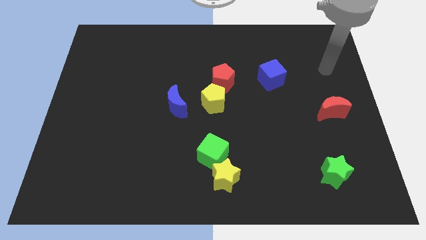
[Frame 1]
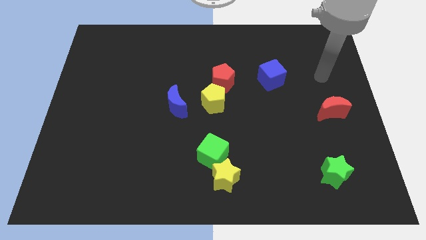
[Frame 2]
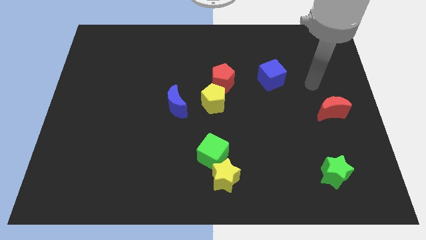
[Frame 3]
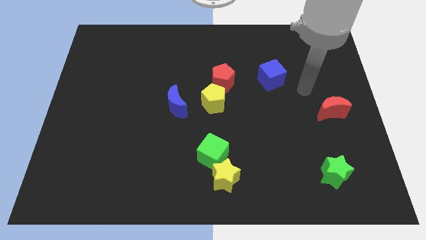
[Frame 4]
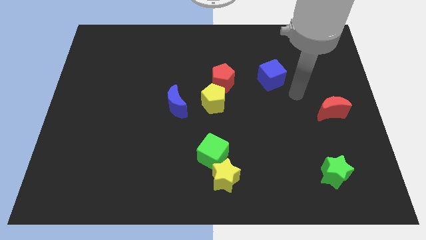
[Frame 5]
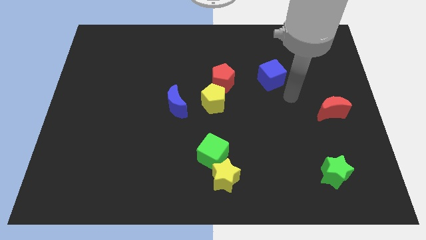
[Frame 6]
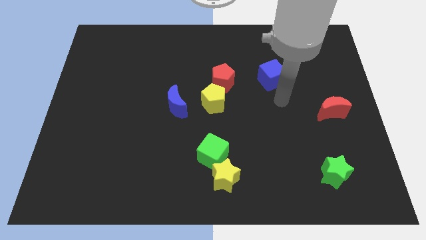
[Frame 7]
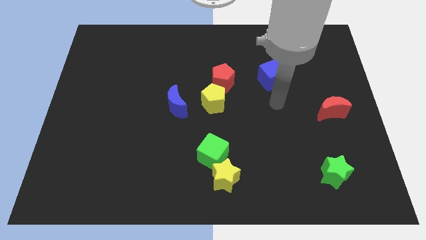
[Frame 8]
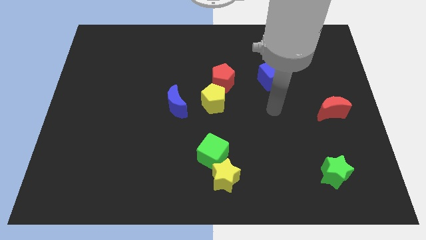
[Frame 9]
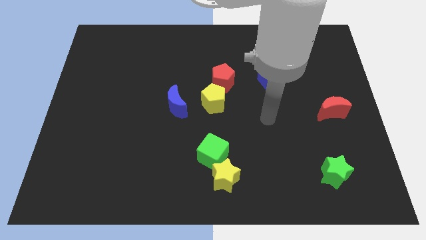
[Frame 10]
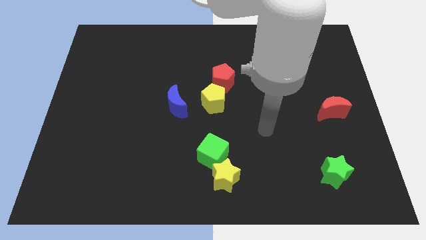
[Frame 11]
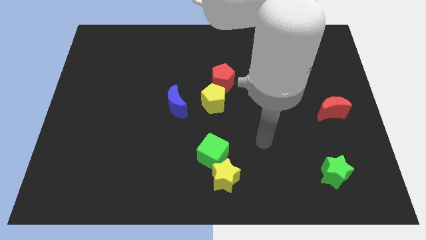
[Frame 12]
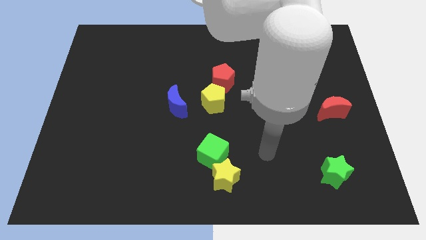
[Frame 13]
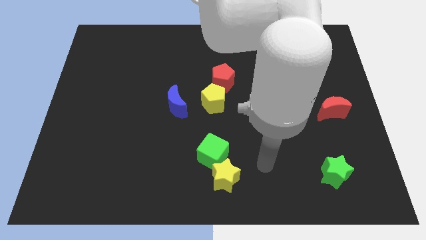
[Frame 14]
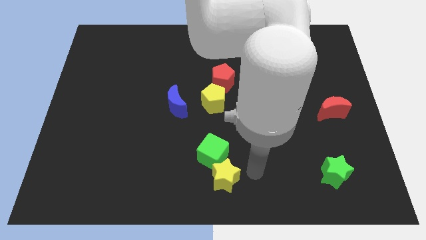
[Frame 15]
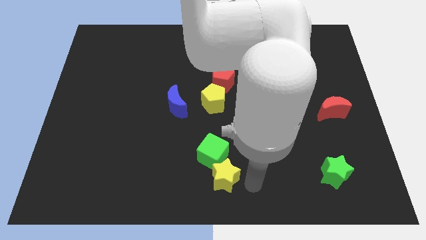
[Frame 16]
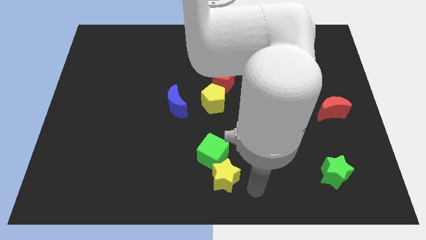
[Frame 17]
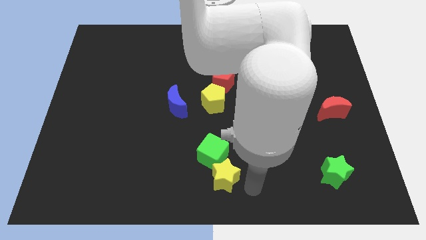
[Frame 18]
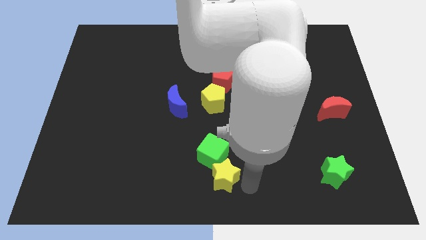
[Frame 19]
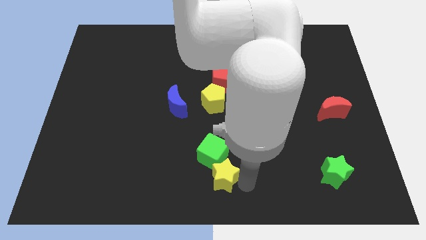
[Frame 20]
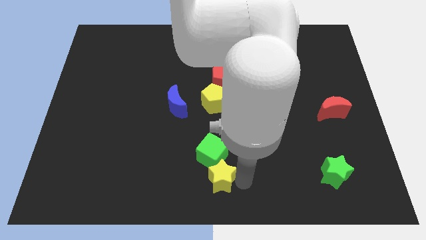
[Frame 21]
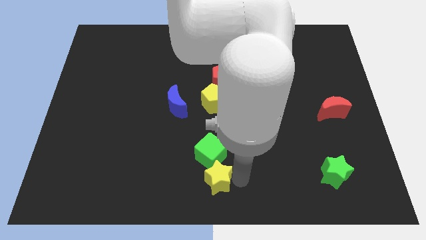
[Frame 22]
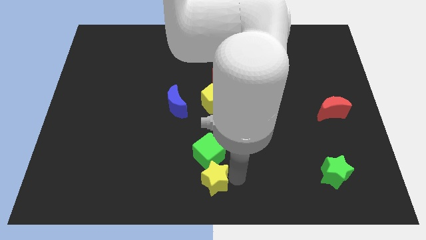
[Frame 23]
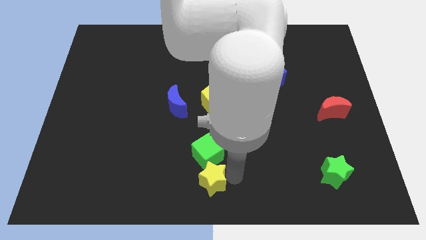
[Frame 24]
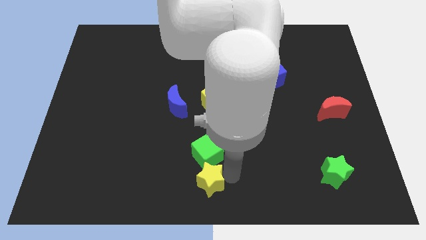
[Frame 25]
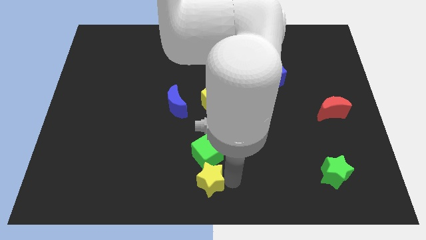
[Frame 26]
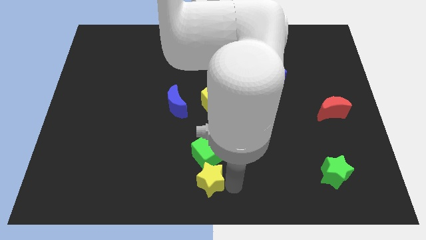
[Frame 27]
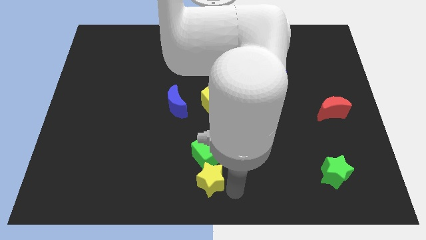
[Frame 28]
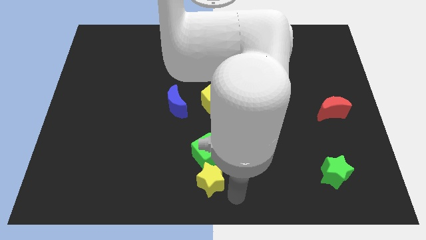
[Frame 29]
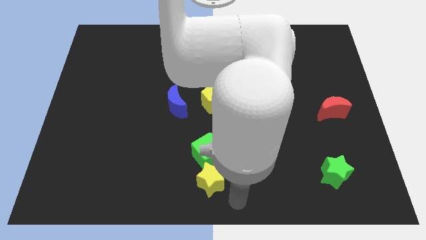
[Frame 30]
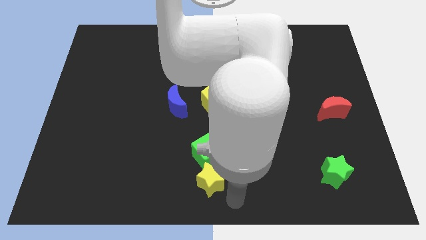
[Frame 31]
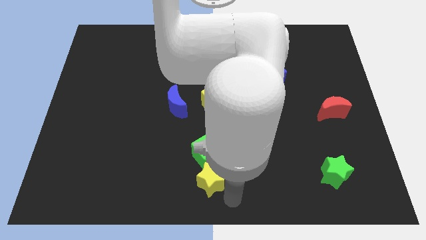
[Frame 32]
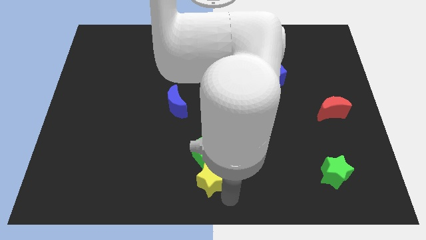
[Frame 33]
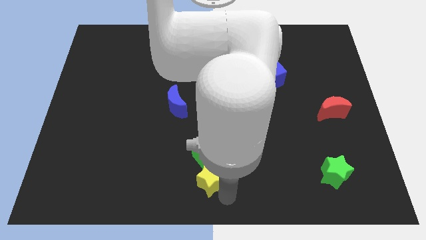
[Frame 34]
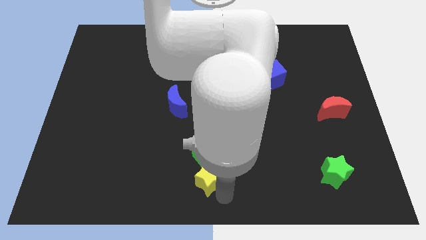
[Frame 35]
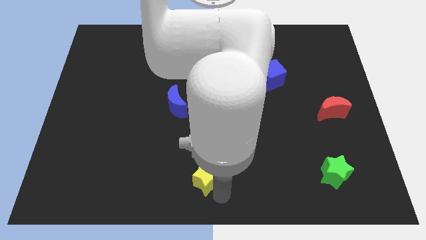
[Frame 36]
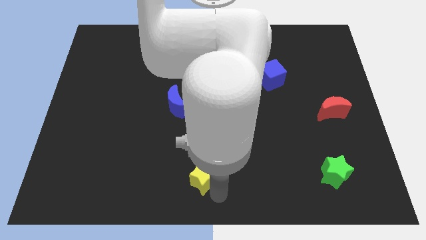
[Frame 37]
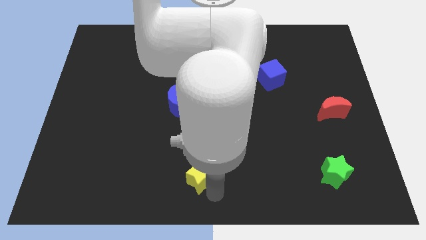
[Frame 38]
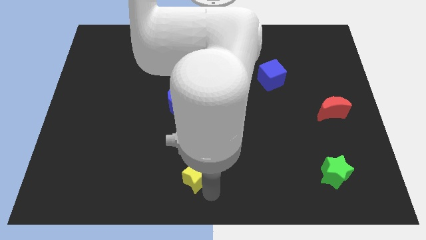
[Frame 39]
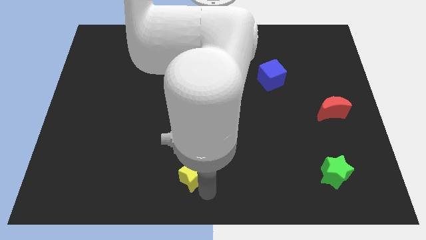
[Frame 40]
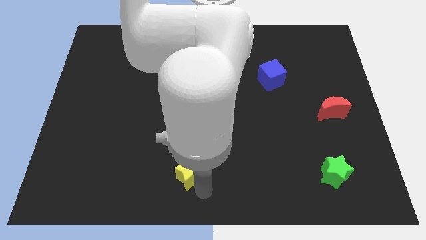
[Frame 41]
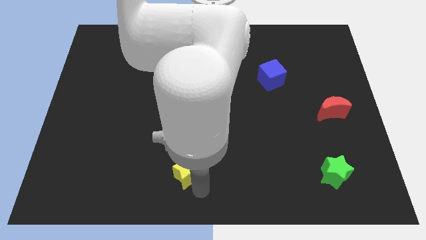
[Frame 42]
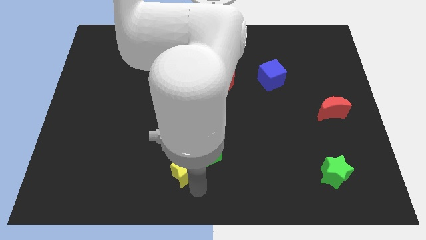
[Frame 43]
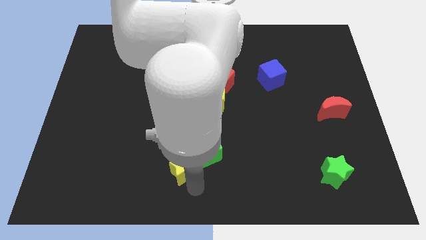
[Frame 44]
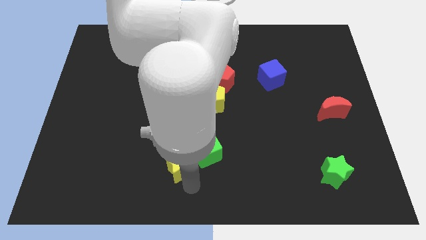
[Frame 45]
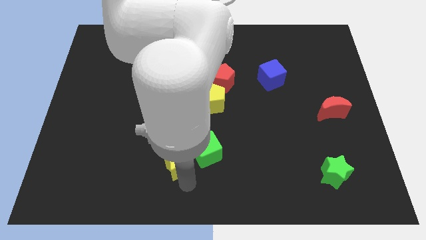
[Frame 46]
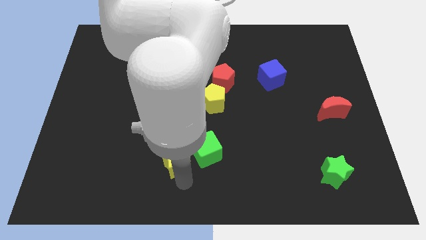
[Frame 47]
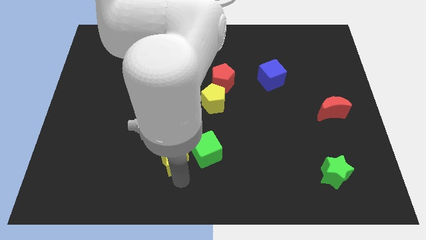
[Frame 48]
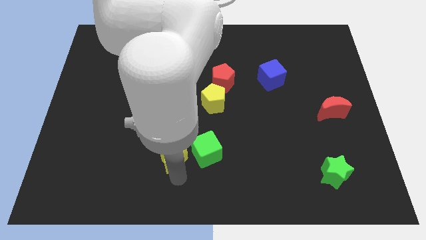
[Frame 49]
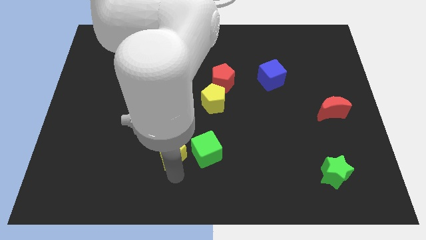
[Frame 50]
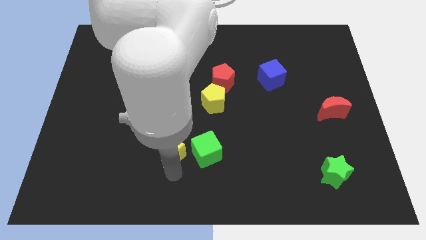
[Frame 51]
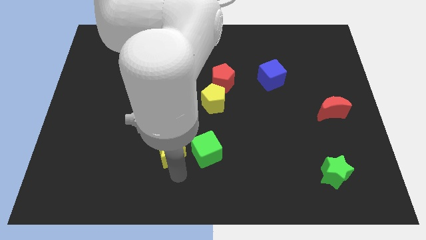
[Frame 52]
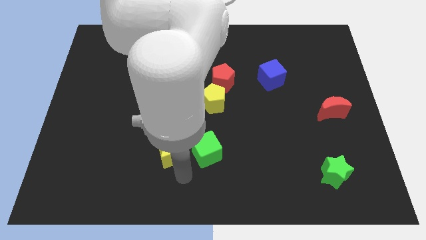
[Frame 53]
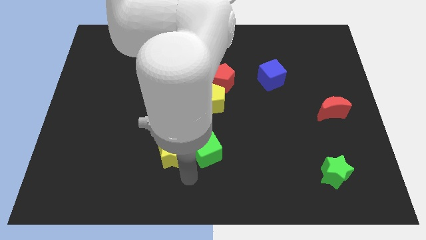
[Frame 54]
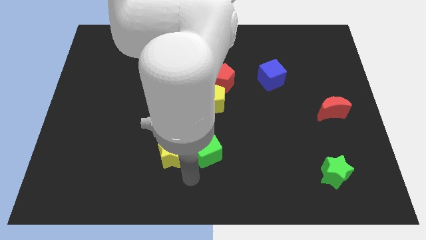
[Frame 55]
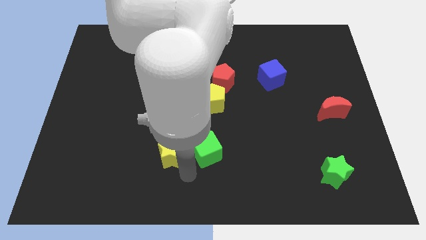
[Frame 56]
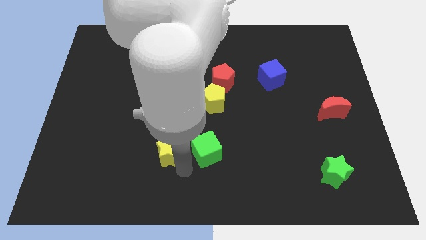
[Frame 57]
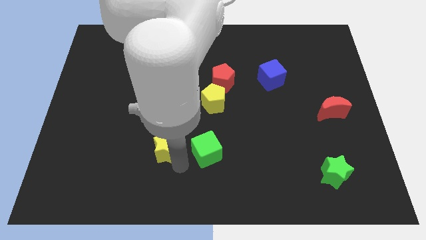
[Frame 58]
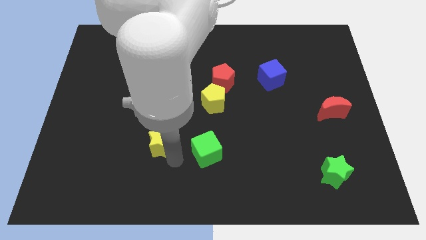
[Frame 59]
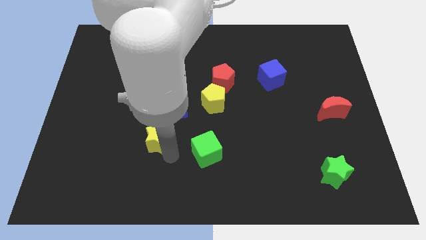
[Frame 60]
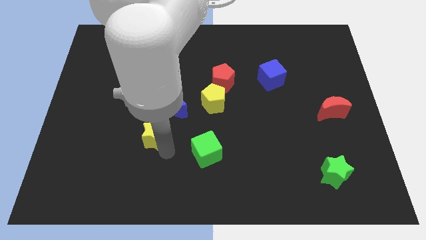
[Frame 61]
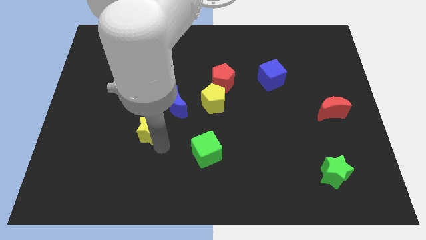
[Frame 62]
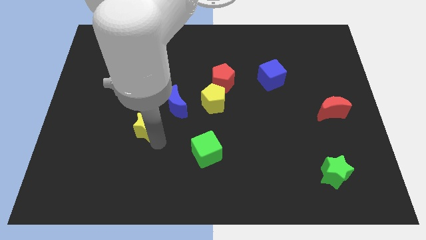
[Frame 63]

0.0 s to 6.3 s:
move the yellow star up and to the left diagonally

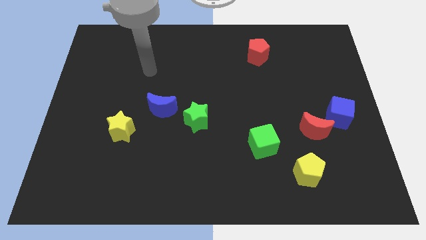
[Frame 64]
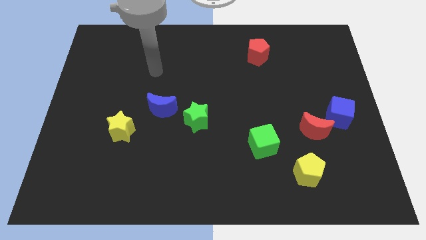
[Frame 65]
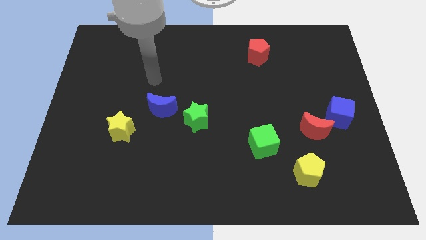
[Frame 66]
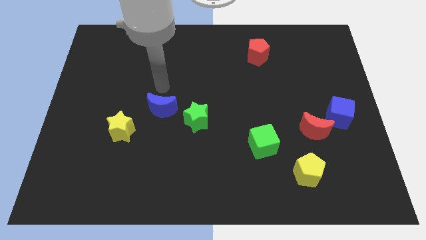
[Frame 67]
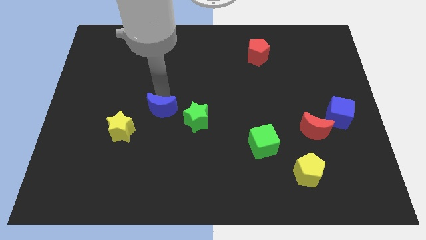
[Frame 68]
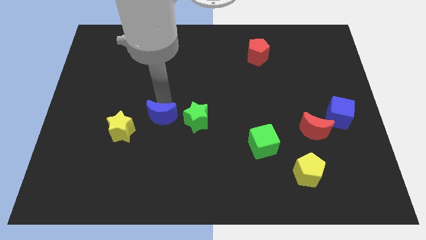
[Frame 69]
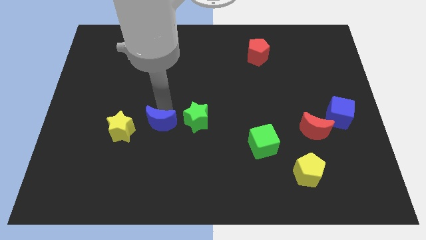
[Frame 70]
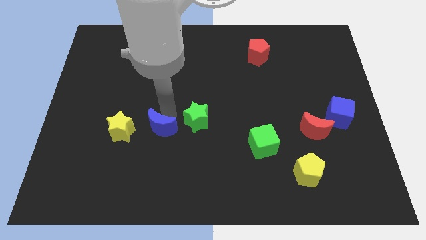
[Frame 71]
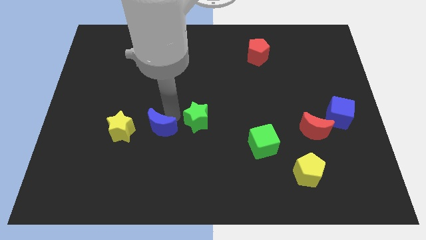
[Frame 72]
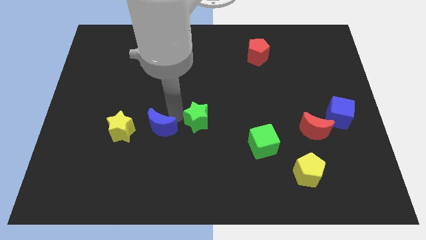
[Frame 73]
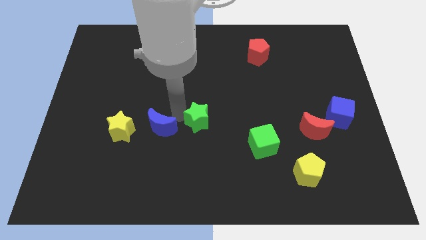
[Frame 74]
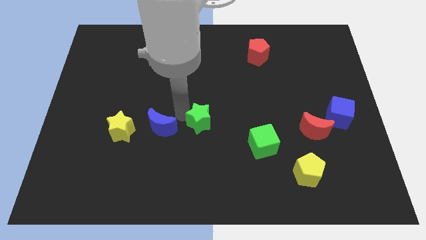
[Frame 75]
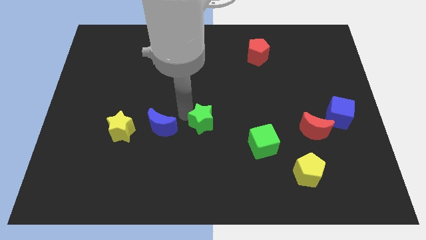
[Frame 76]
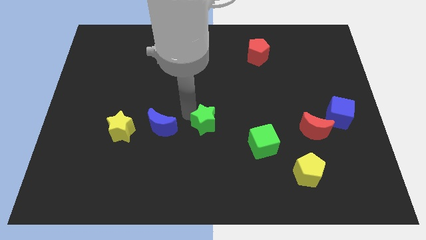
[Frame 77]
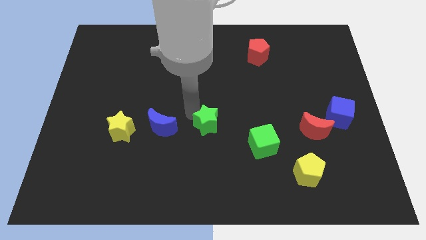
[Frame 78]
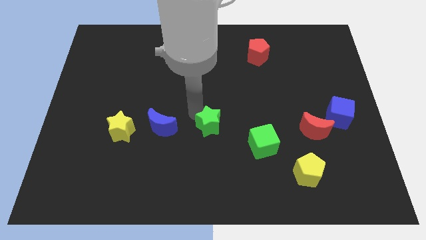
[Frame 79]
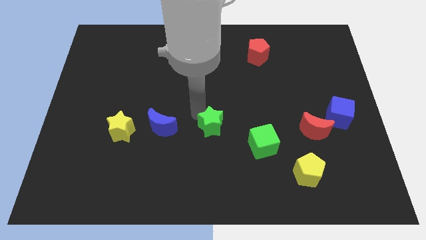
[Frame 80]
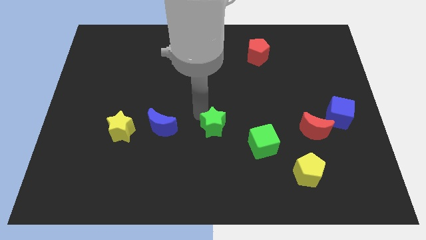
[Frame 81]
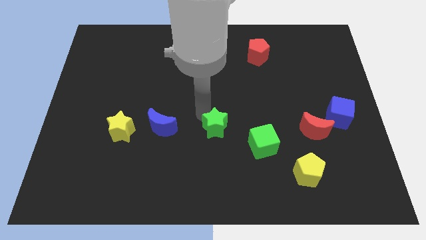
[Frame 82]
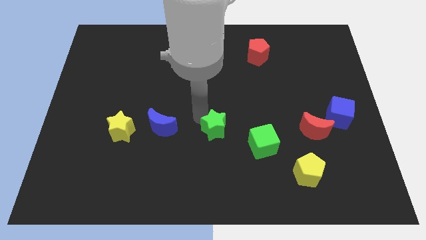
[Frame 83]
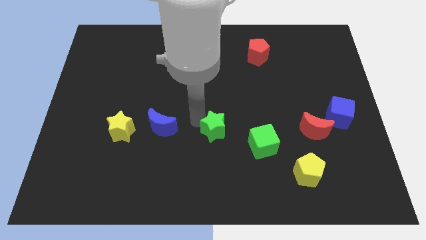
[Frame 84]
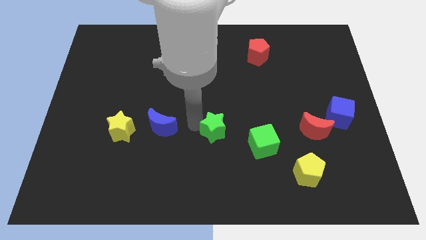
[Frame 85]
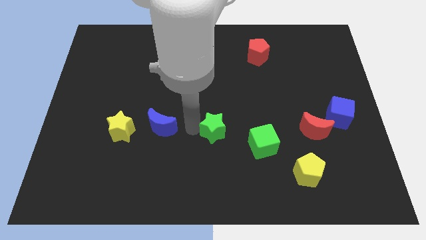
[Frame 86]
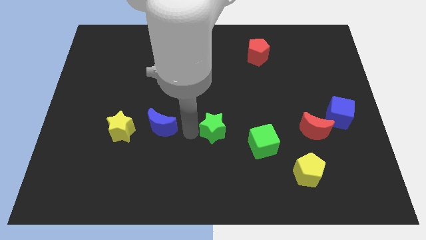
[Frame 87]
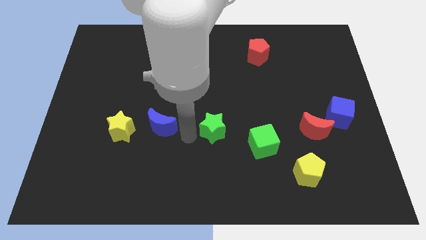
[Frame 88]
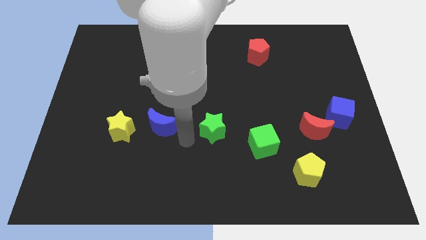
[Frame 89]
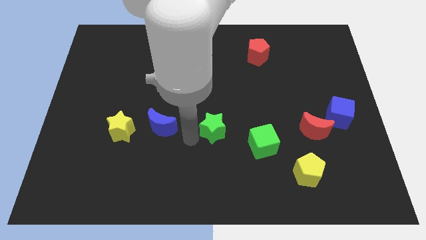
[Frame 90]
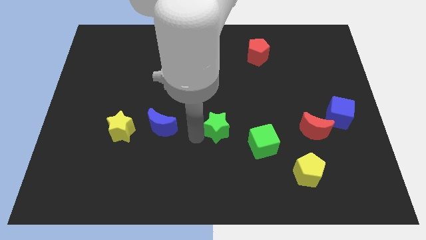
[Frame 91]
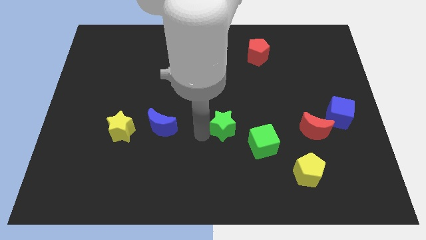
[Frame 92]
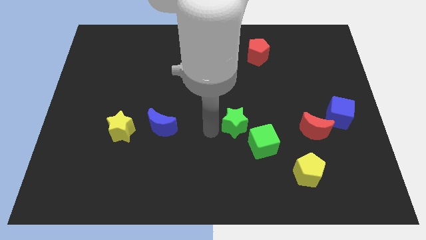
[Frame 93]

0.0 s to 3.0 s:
slightly move the green star to the right
